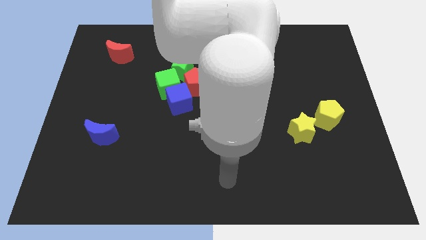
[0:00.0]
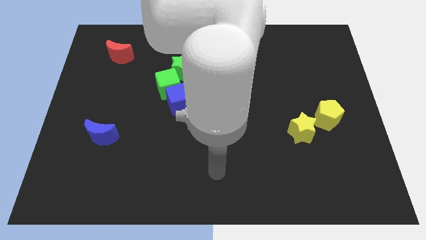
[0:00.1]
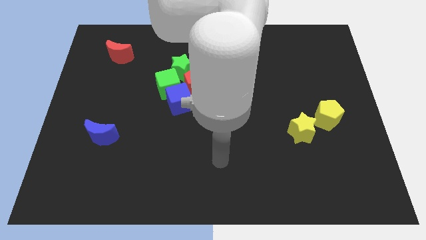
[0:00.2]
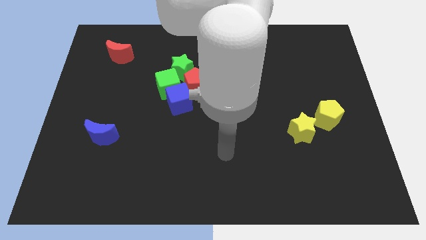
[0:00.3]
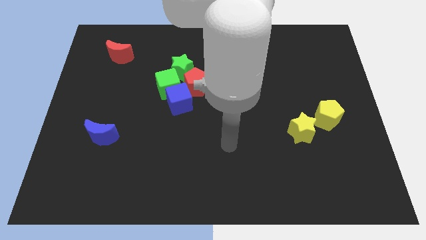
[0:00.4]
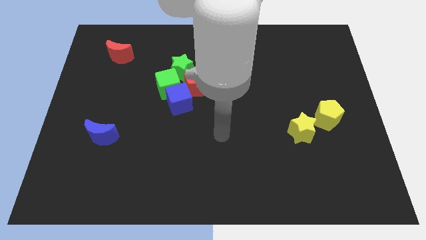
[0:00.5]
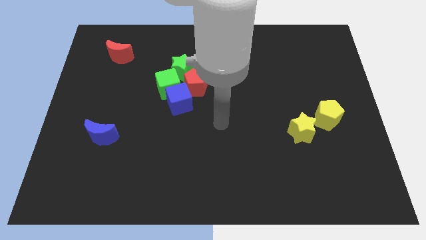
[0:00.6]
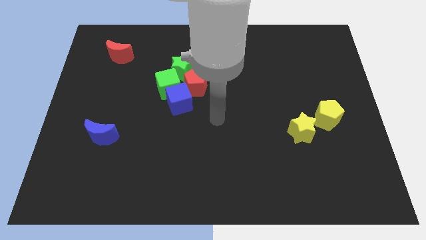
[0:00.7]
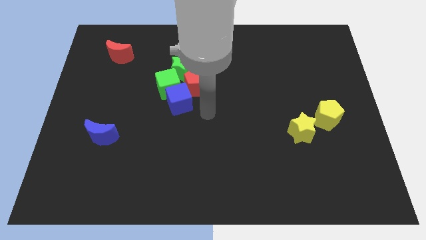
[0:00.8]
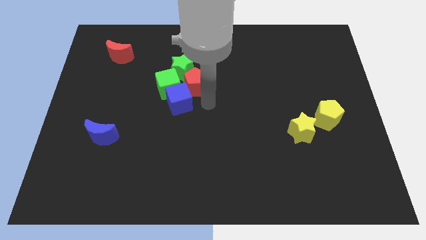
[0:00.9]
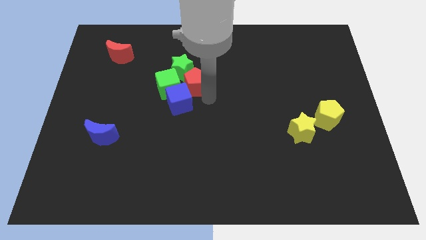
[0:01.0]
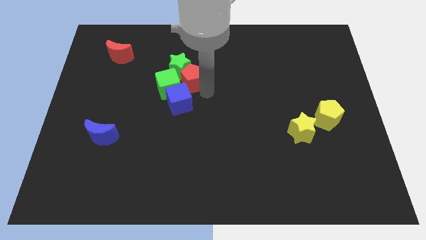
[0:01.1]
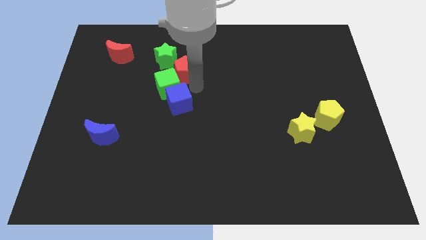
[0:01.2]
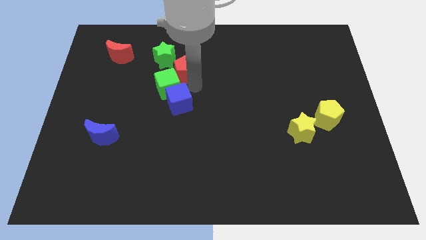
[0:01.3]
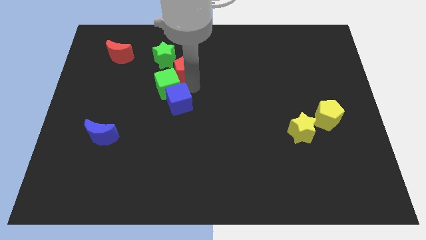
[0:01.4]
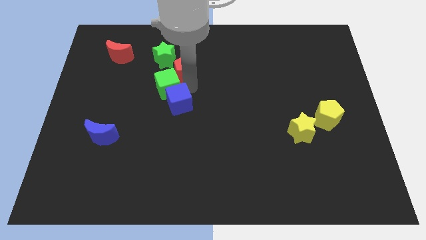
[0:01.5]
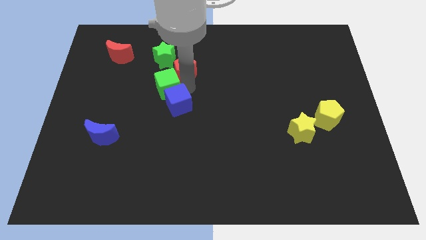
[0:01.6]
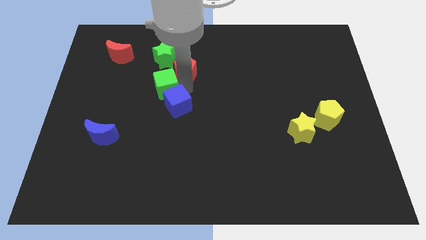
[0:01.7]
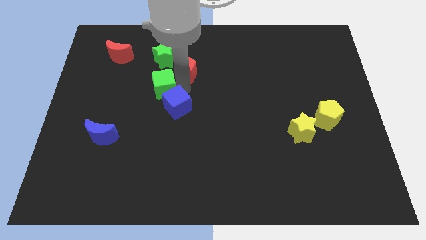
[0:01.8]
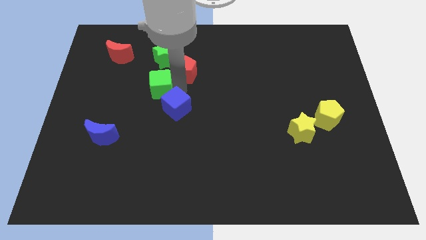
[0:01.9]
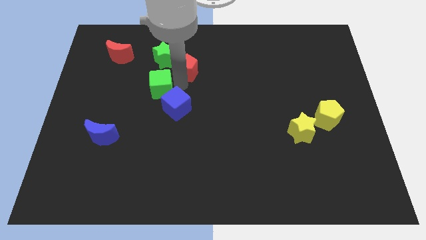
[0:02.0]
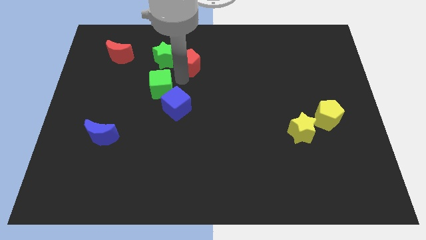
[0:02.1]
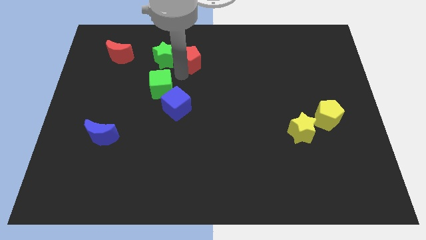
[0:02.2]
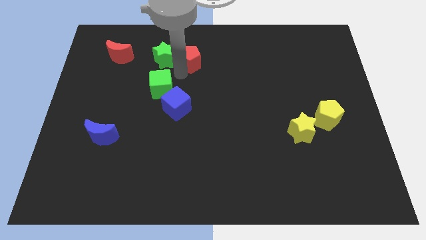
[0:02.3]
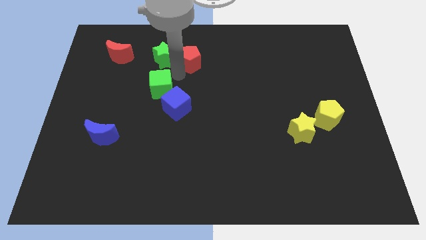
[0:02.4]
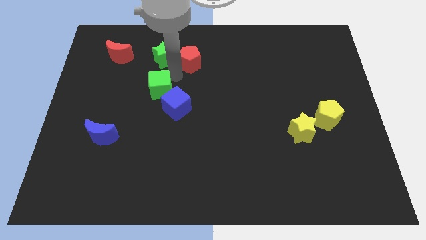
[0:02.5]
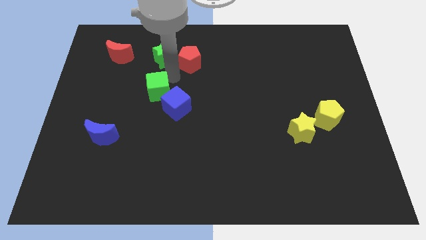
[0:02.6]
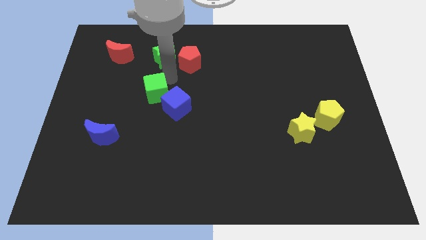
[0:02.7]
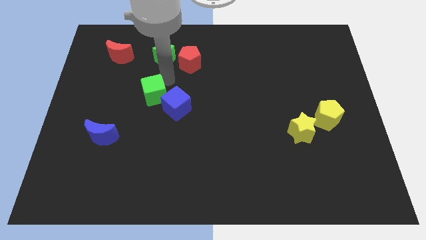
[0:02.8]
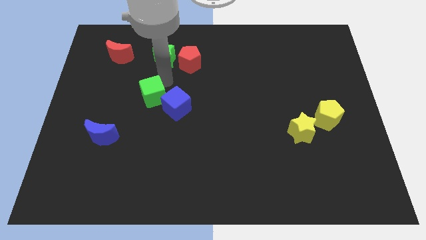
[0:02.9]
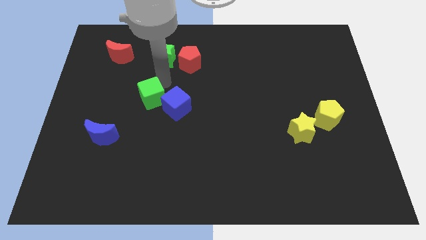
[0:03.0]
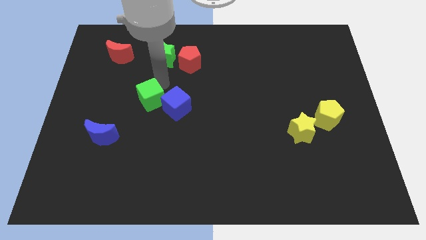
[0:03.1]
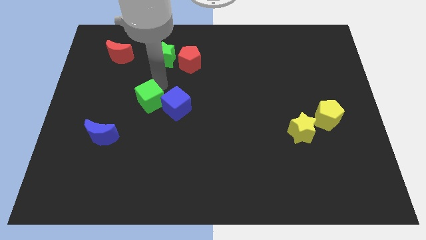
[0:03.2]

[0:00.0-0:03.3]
separate the green cube from the blue cube, green star, and red pentagon

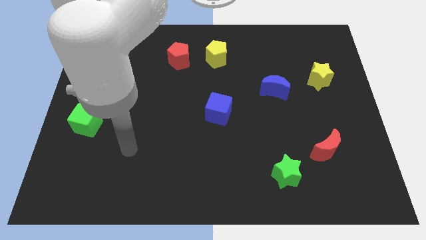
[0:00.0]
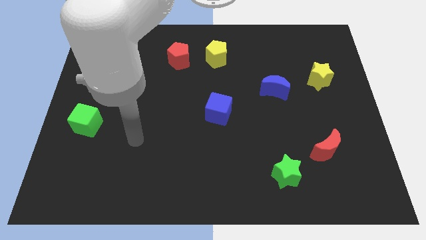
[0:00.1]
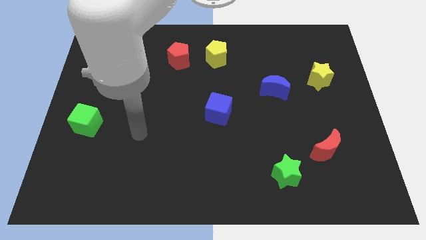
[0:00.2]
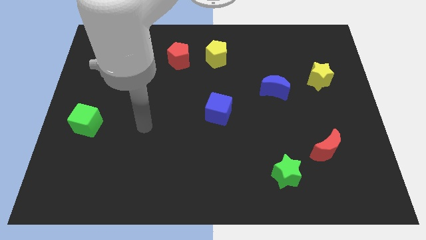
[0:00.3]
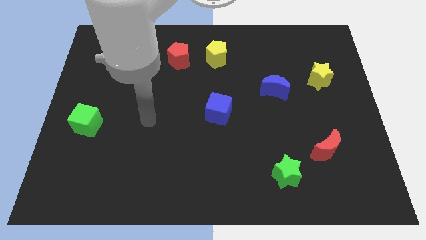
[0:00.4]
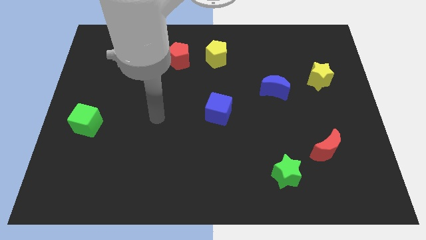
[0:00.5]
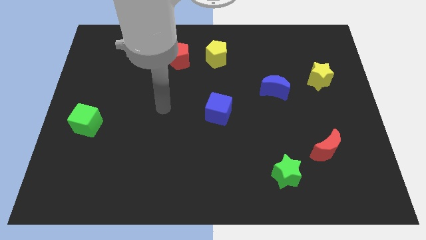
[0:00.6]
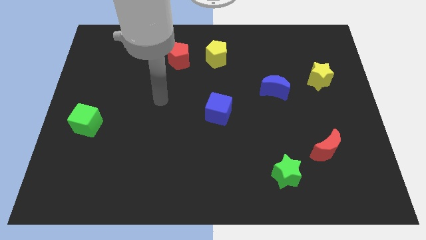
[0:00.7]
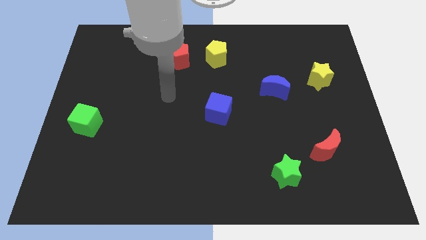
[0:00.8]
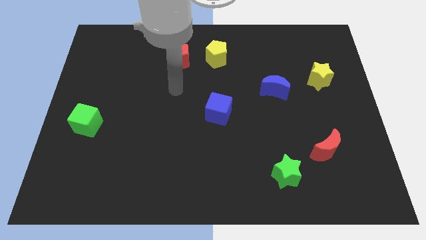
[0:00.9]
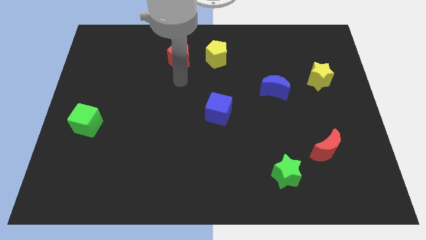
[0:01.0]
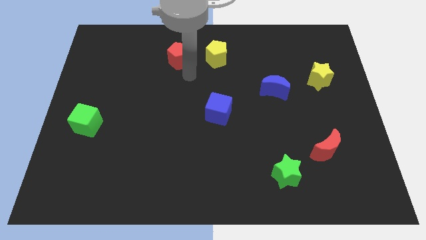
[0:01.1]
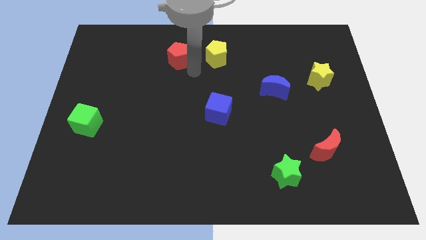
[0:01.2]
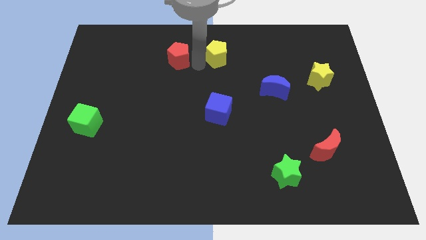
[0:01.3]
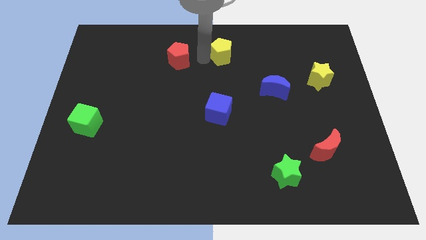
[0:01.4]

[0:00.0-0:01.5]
pull the red pentagon apart from the yellow pentagon

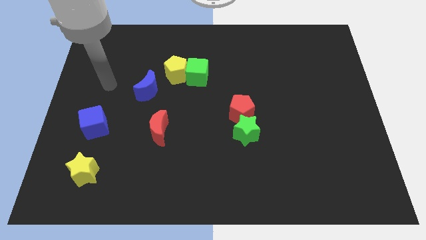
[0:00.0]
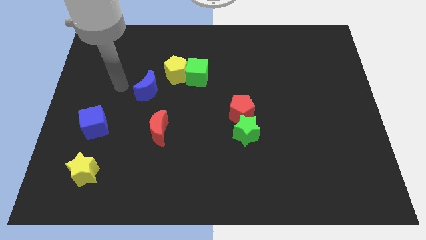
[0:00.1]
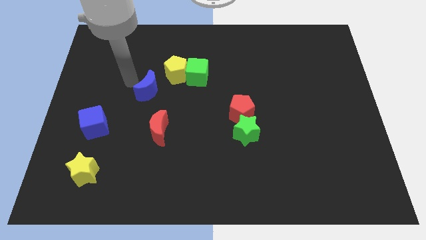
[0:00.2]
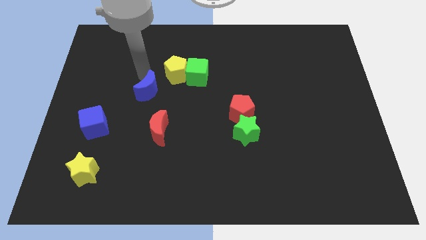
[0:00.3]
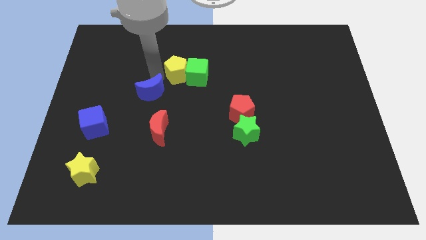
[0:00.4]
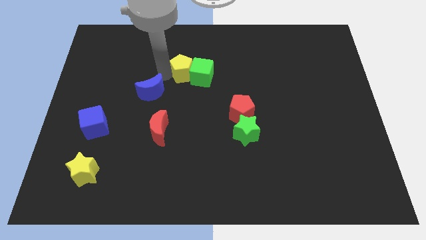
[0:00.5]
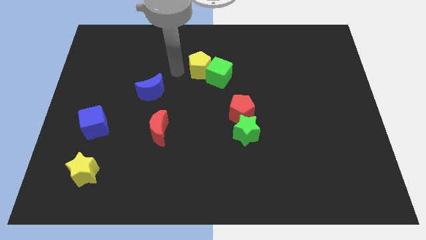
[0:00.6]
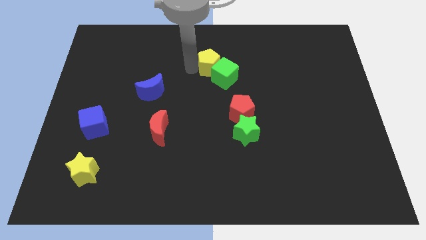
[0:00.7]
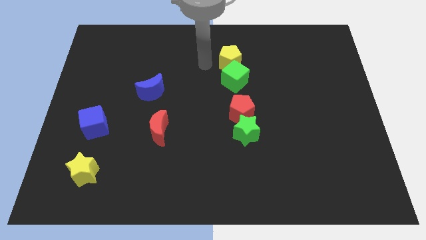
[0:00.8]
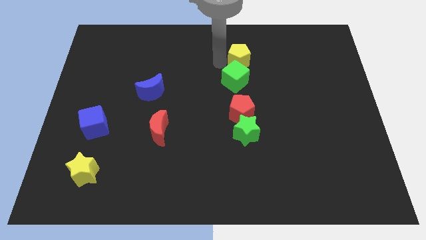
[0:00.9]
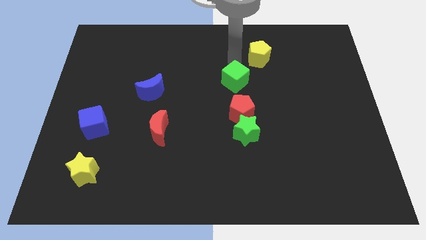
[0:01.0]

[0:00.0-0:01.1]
pull the green cube apart from the yellow pentagon

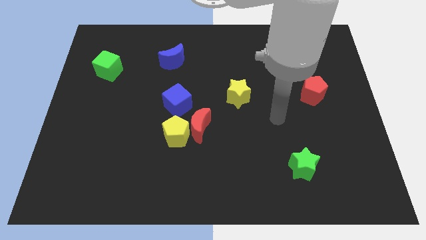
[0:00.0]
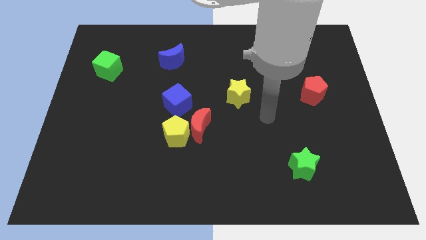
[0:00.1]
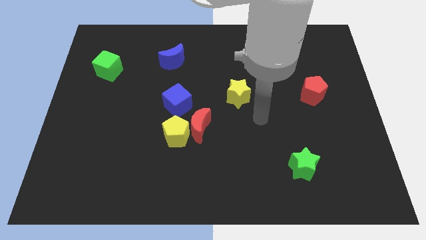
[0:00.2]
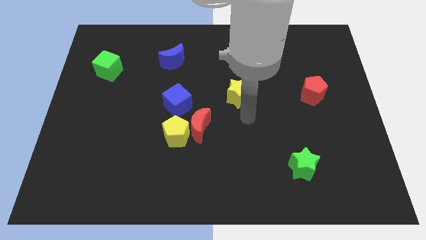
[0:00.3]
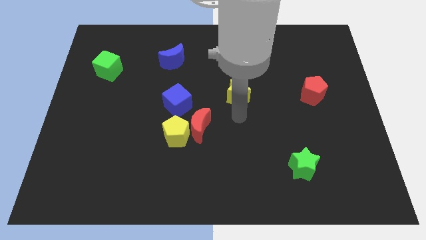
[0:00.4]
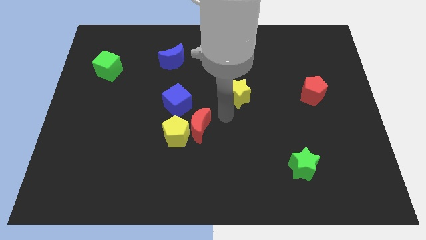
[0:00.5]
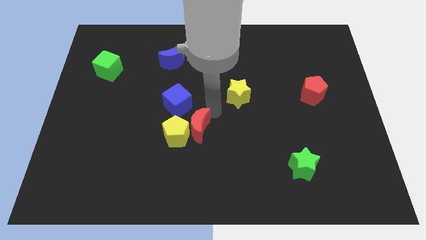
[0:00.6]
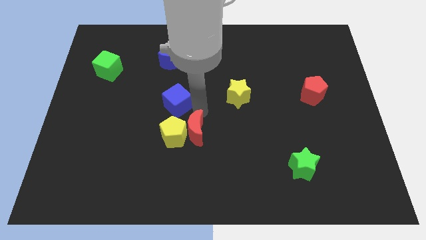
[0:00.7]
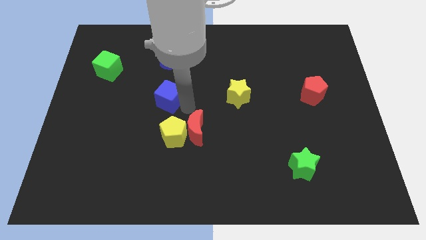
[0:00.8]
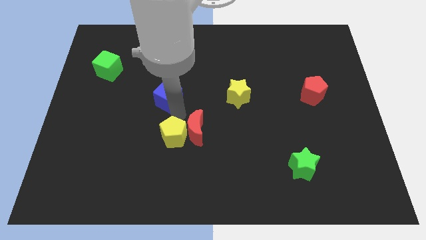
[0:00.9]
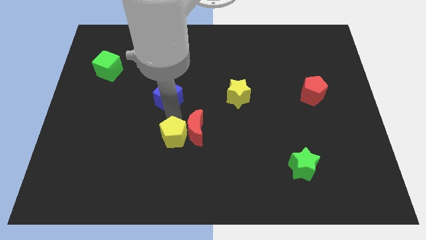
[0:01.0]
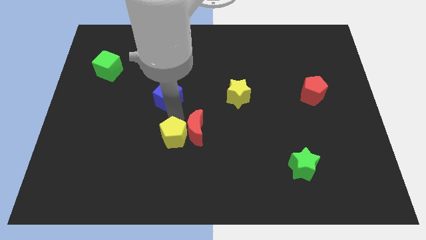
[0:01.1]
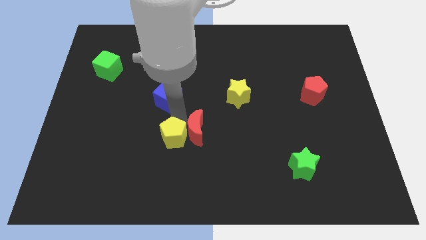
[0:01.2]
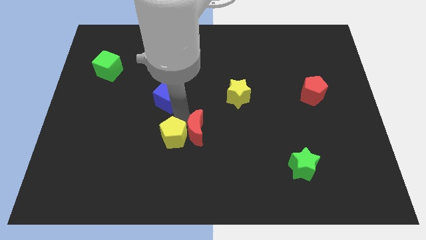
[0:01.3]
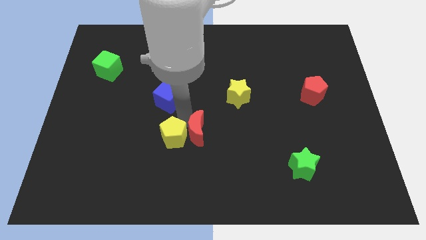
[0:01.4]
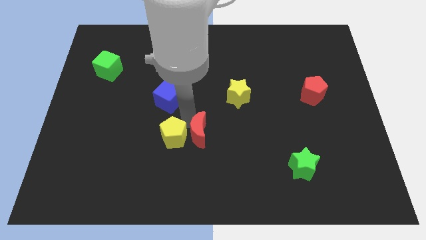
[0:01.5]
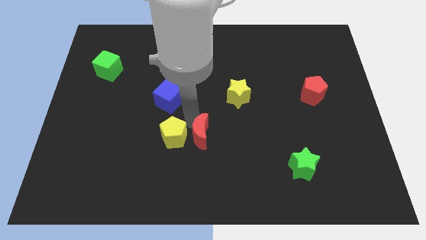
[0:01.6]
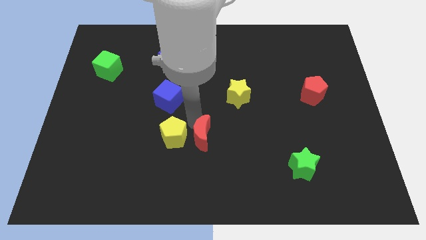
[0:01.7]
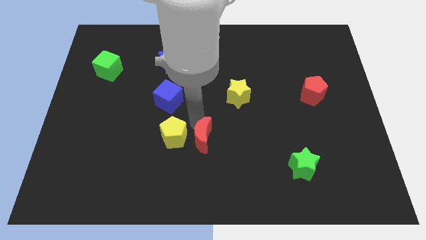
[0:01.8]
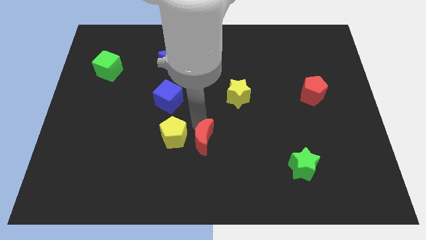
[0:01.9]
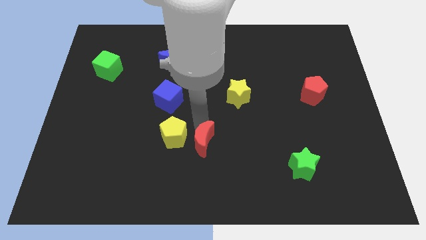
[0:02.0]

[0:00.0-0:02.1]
pull the red moon apart from the yellow pentagon and blue cube

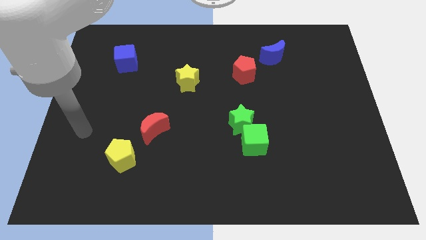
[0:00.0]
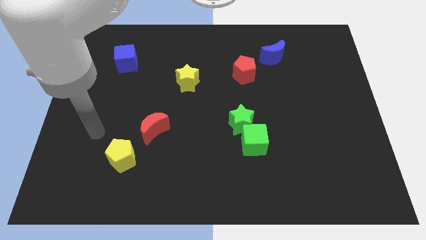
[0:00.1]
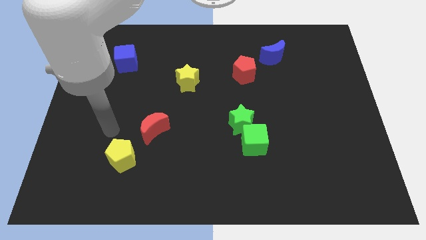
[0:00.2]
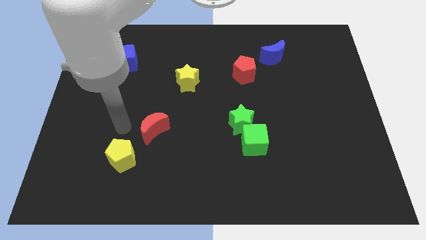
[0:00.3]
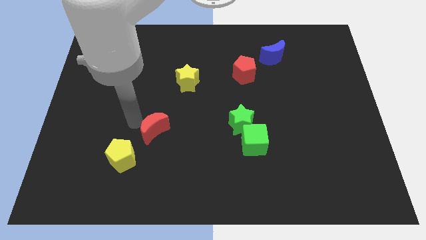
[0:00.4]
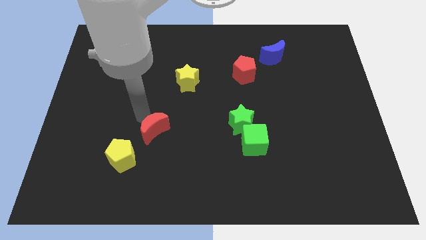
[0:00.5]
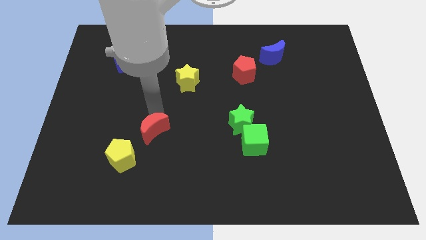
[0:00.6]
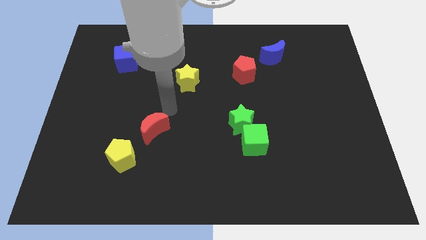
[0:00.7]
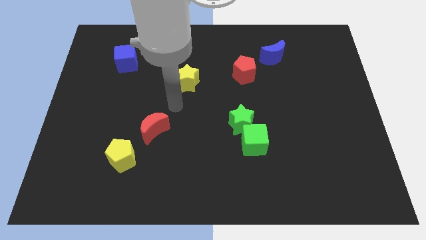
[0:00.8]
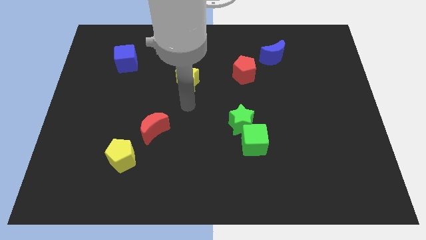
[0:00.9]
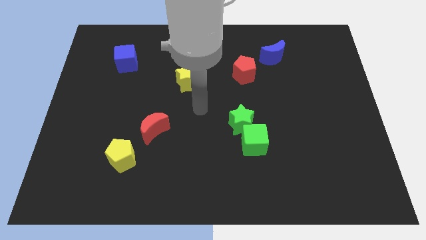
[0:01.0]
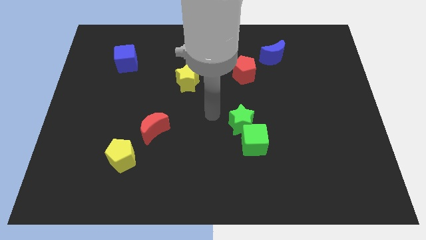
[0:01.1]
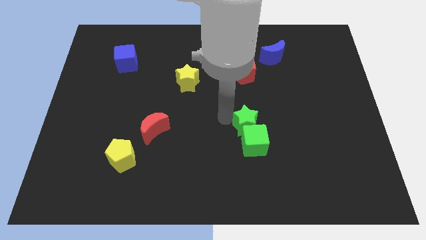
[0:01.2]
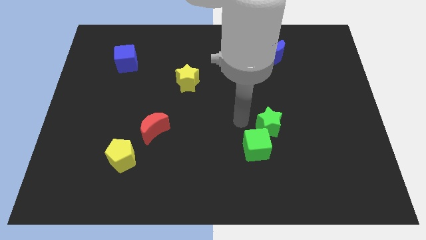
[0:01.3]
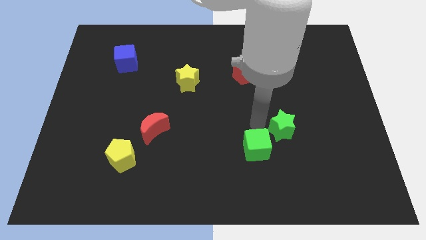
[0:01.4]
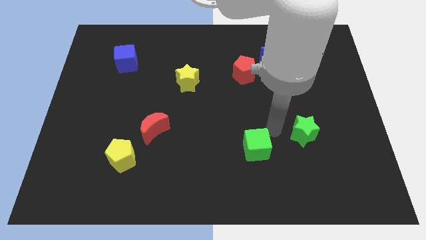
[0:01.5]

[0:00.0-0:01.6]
separate the green cube from the green star
